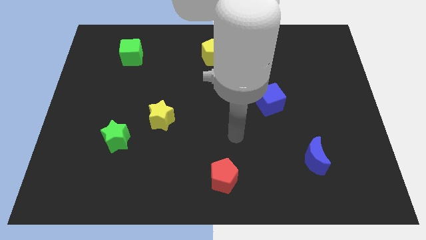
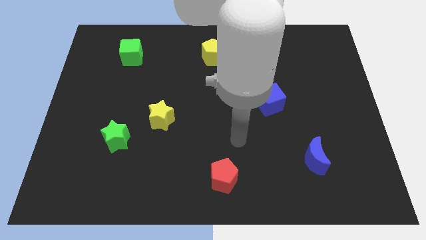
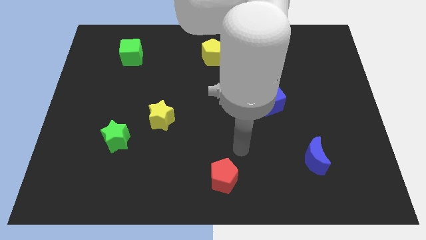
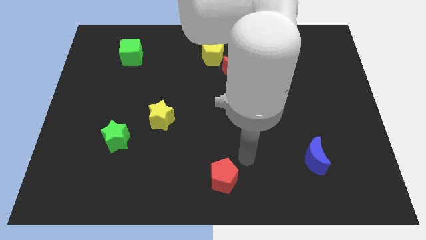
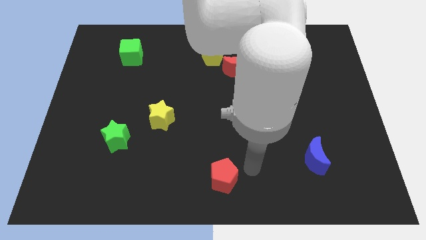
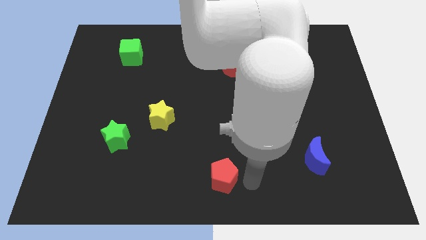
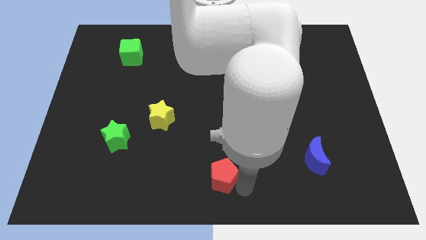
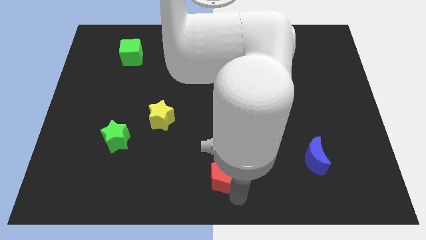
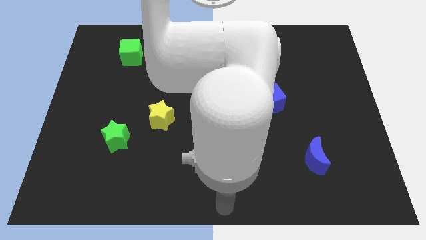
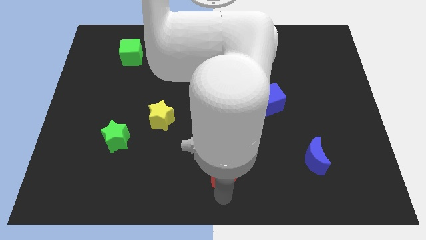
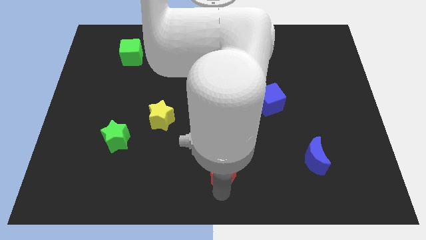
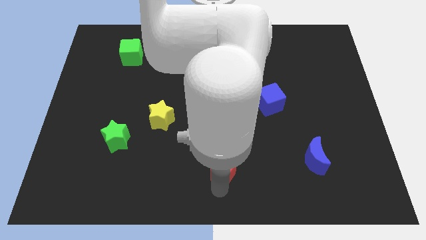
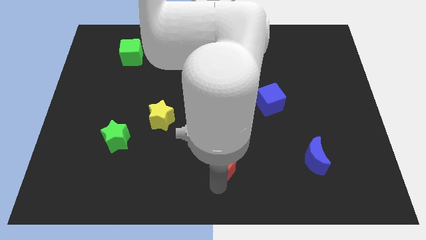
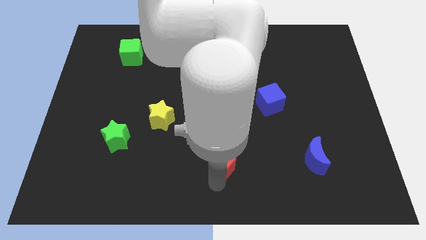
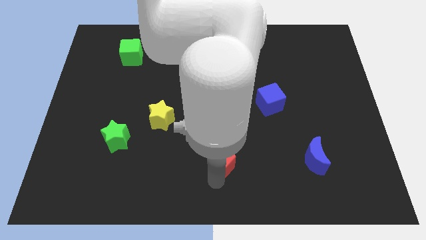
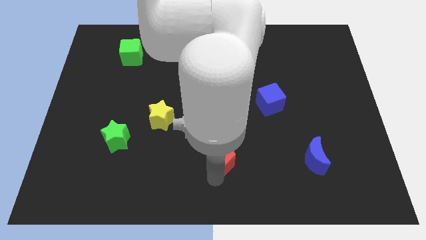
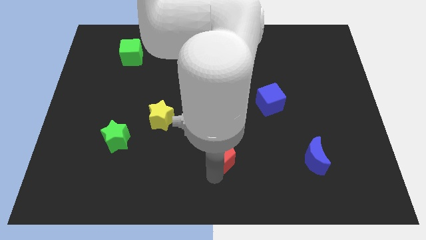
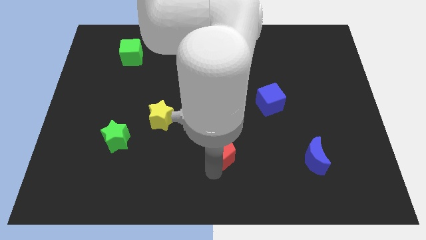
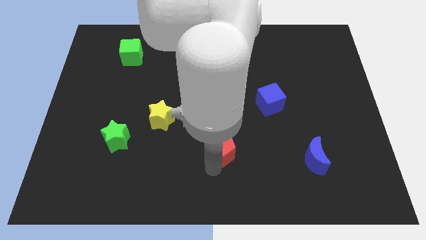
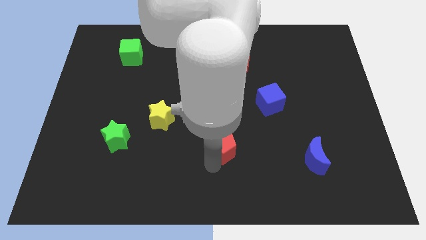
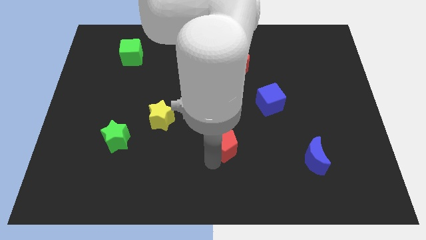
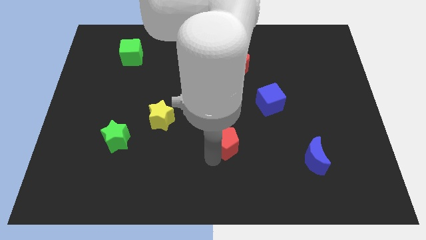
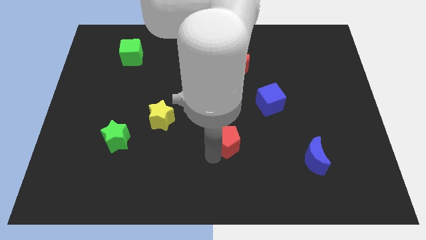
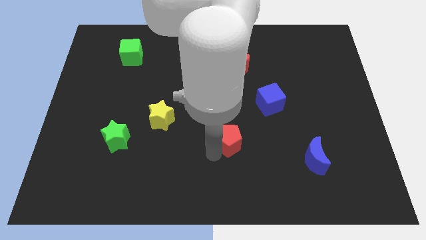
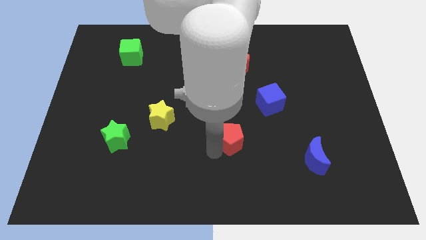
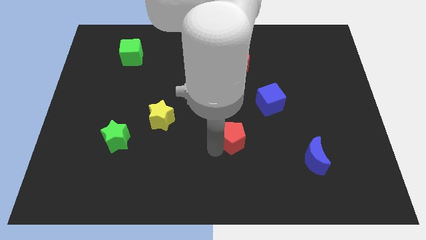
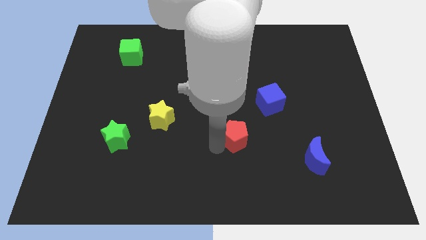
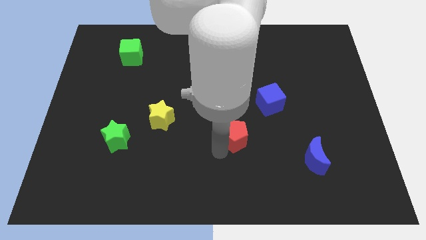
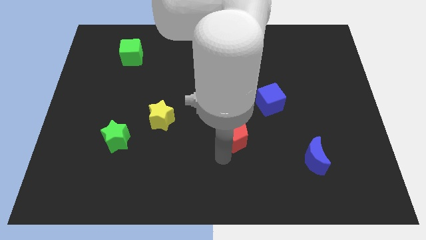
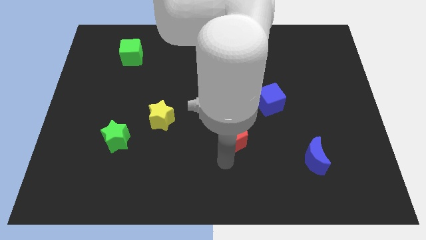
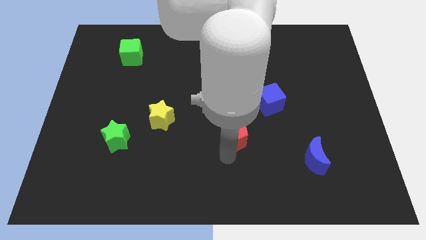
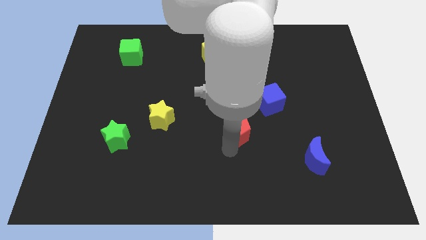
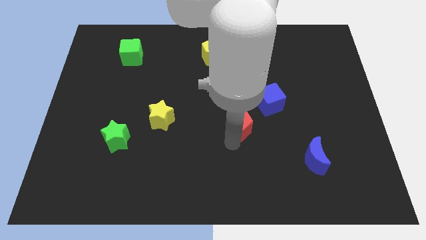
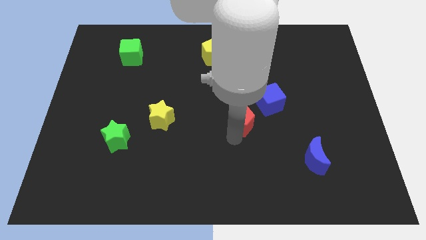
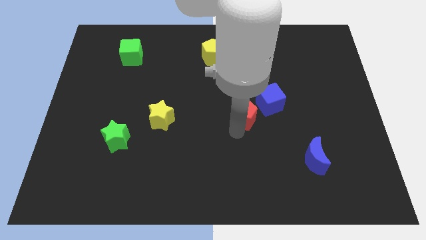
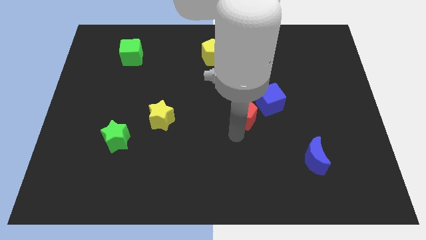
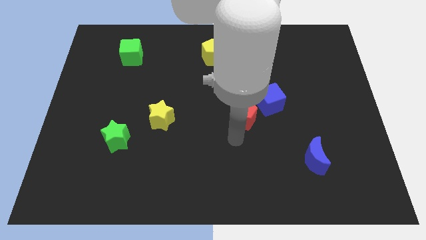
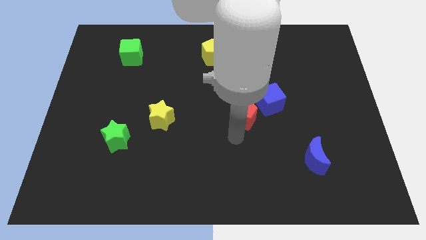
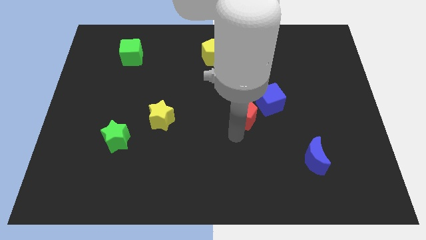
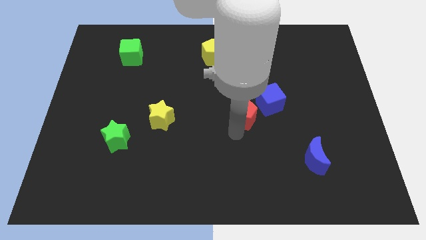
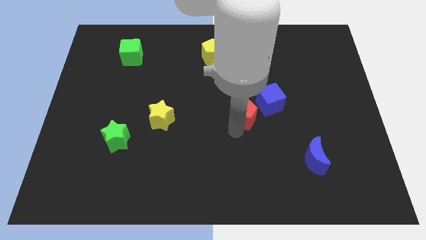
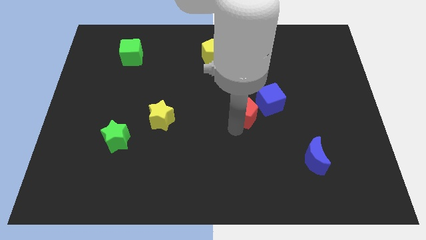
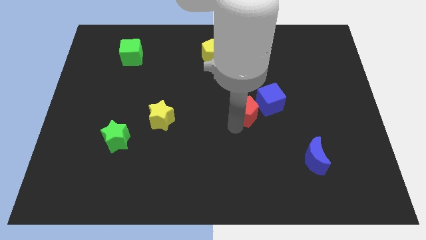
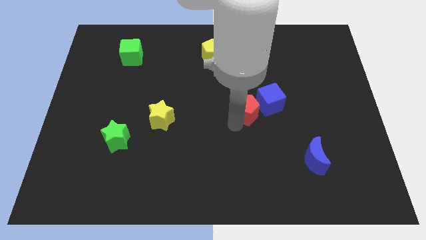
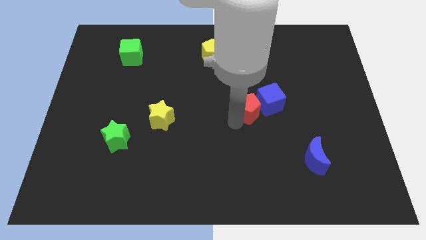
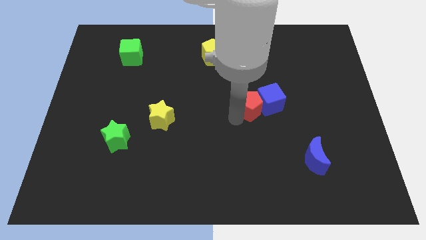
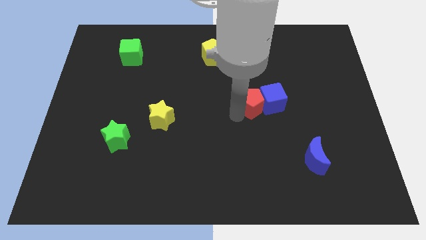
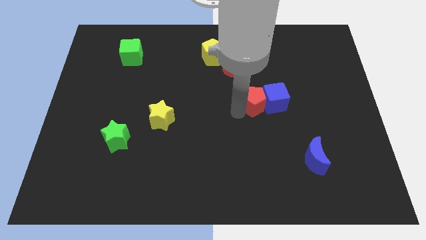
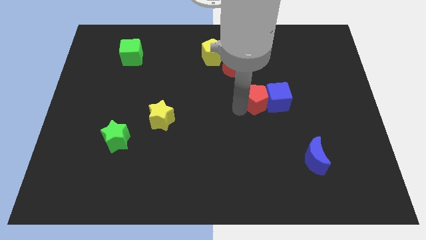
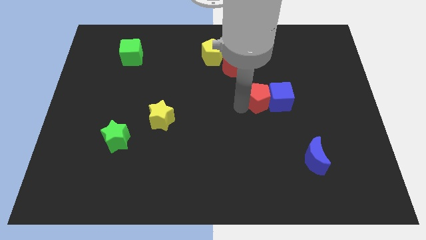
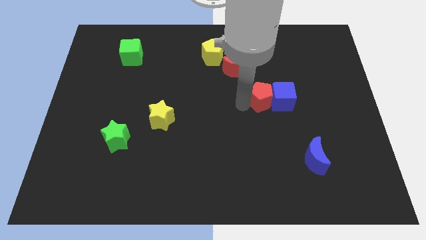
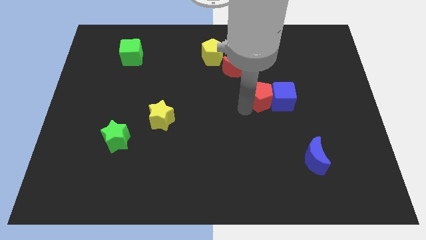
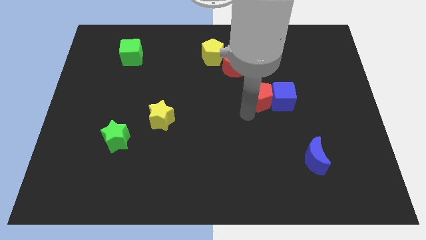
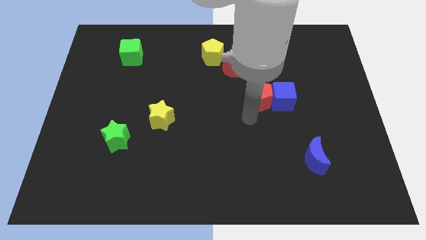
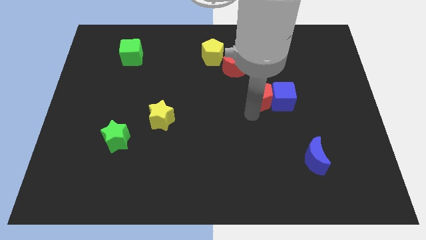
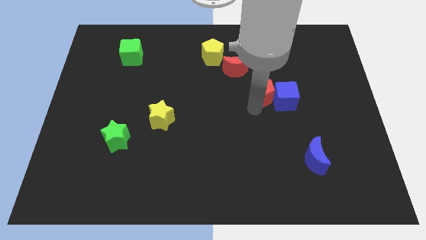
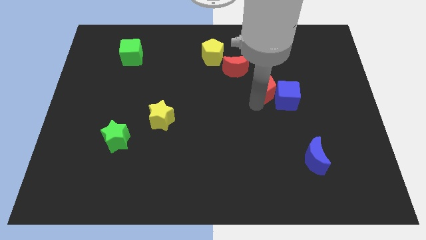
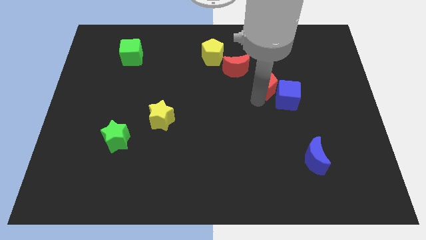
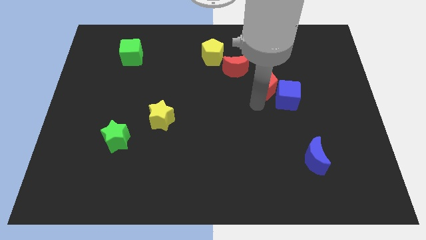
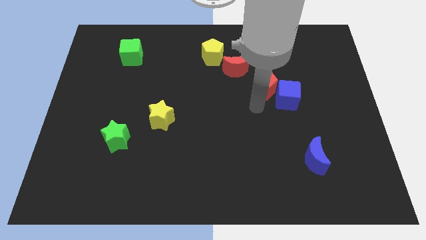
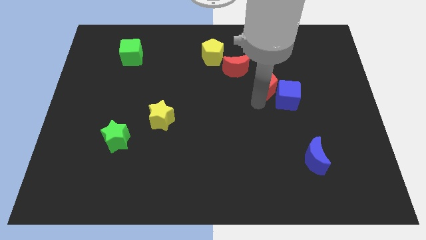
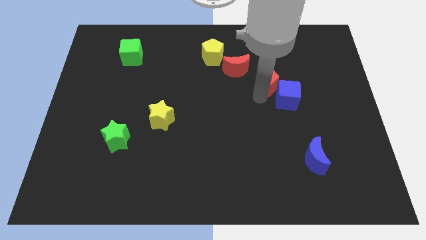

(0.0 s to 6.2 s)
move the red pentagon up

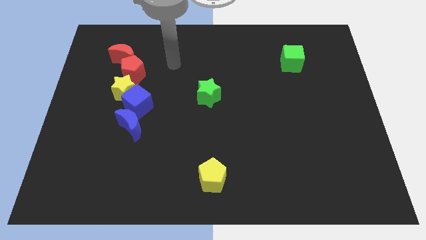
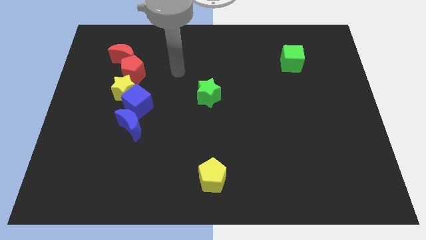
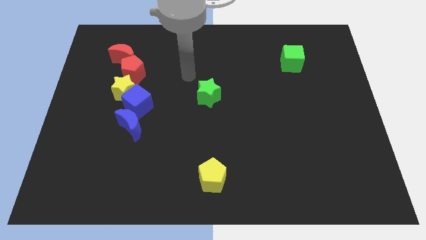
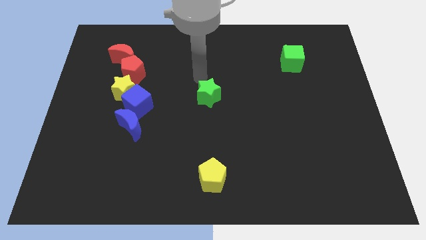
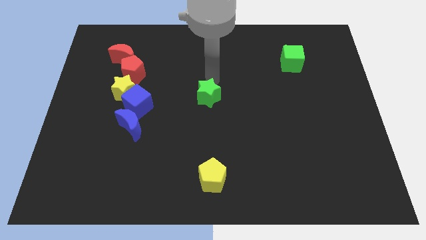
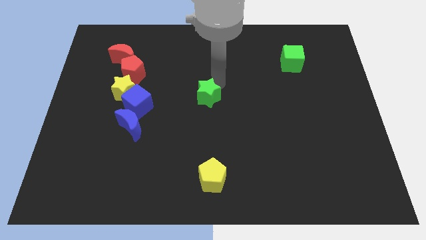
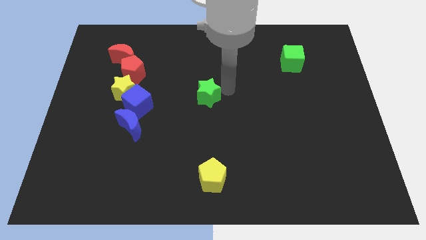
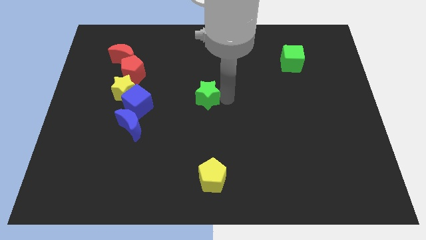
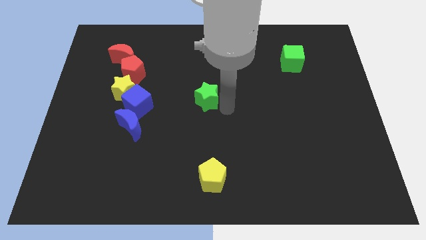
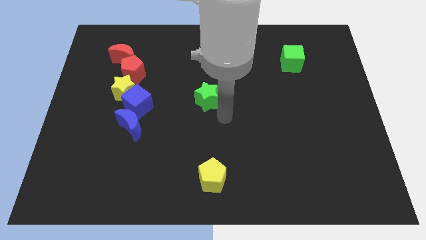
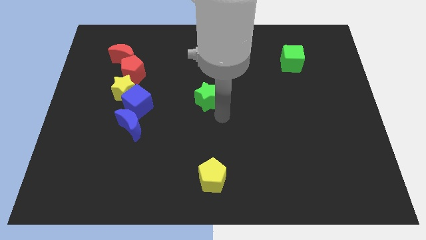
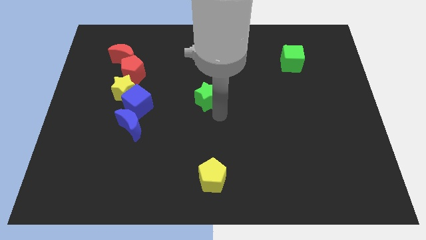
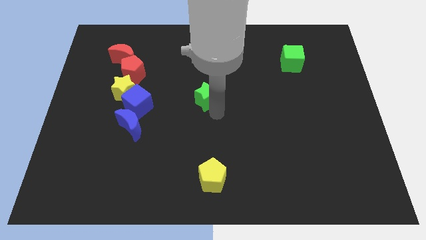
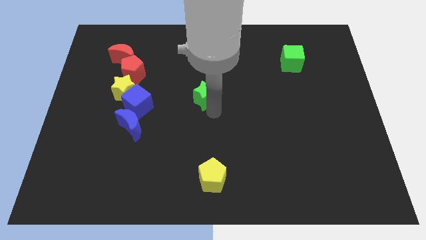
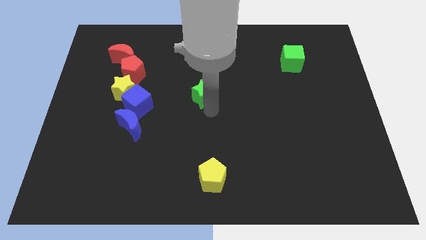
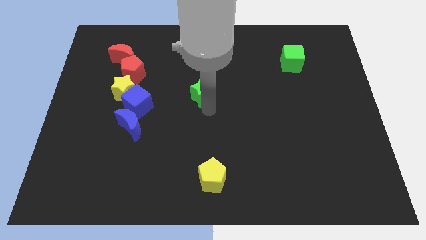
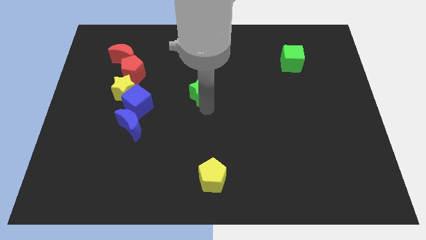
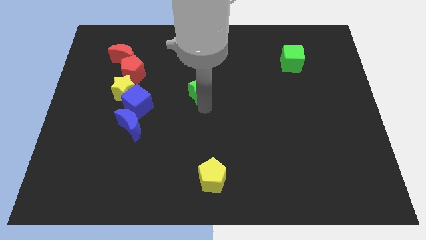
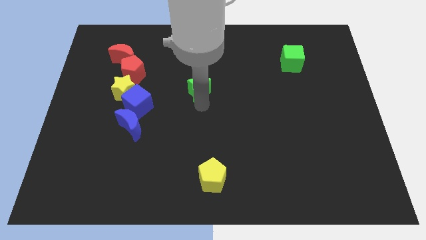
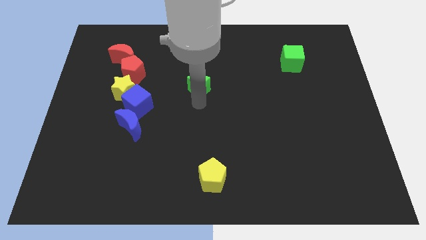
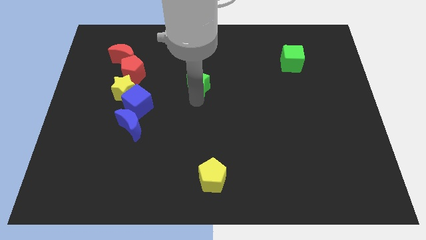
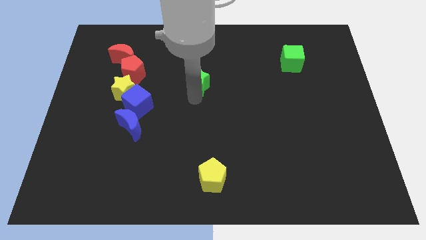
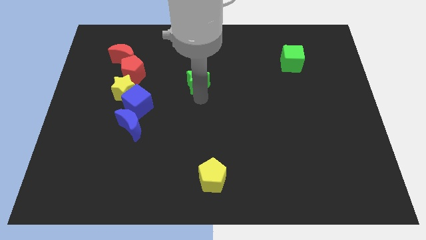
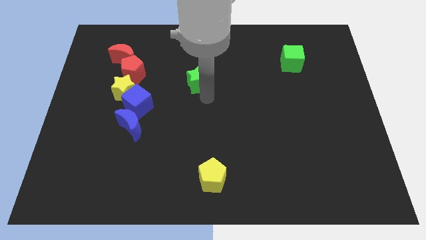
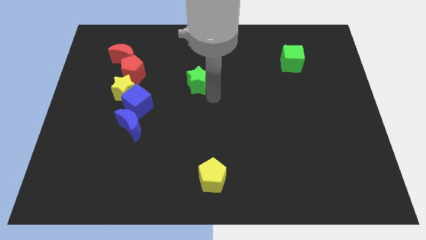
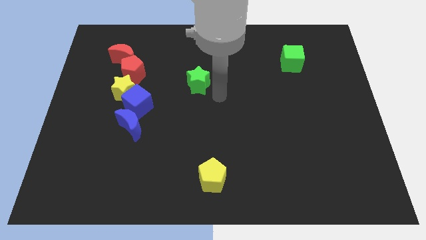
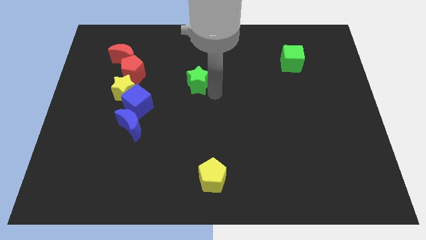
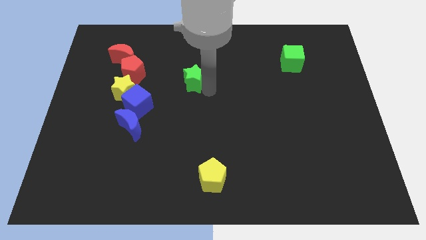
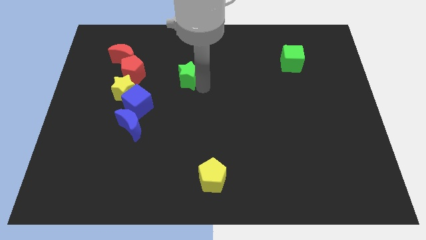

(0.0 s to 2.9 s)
slightly slide the green star up and to the left diagonally
